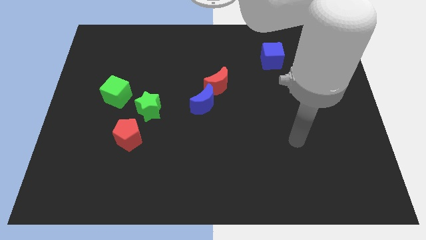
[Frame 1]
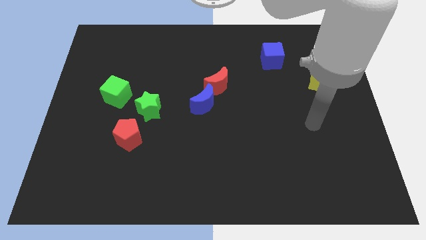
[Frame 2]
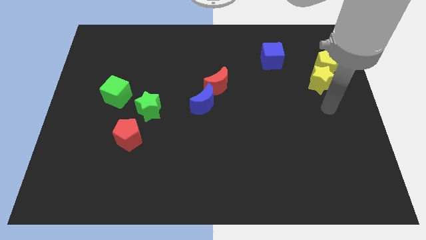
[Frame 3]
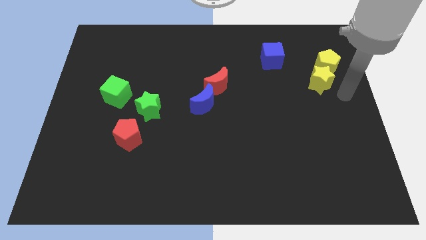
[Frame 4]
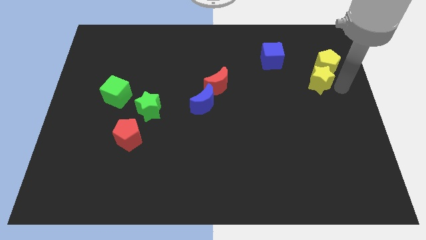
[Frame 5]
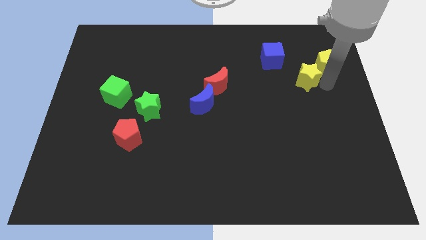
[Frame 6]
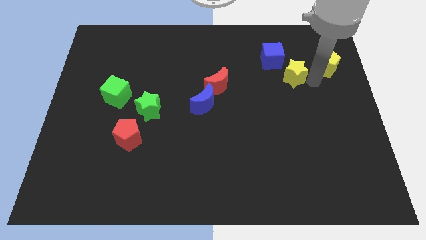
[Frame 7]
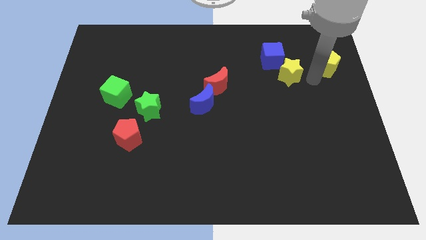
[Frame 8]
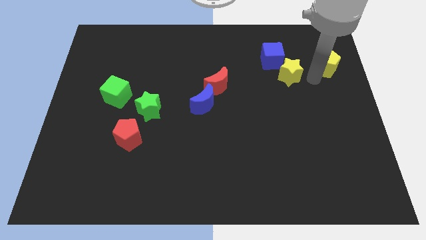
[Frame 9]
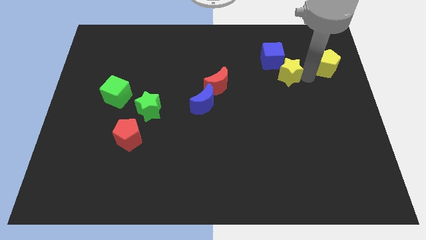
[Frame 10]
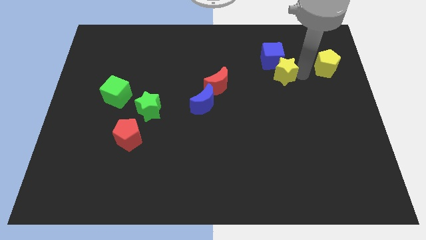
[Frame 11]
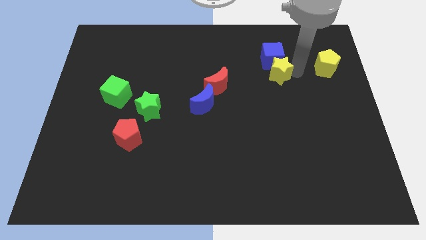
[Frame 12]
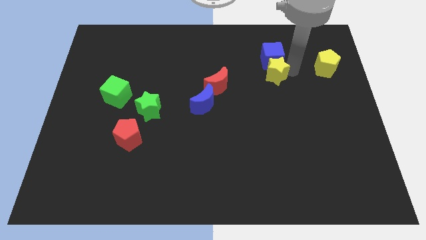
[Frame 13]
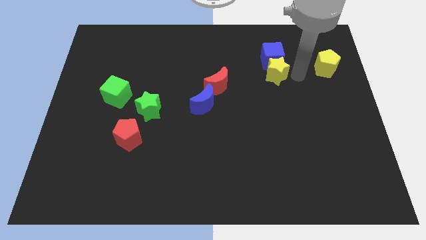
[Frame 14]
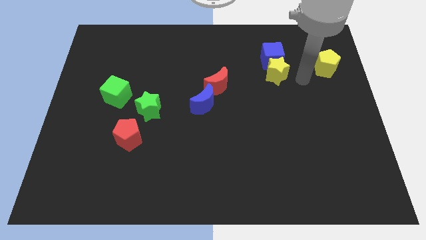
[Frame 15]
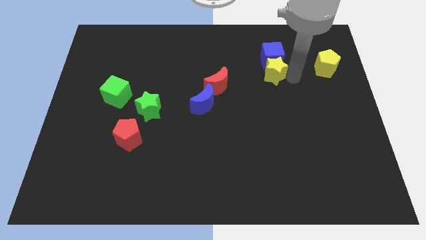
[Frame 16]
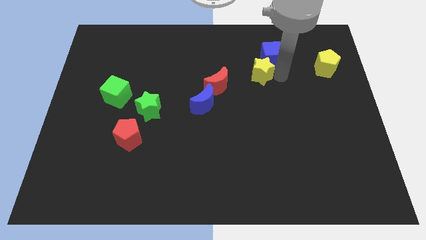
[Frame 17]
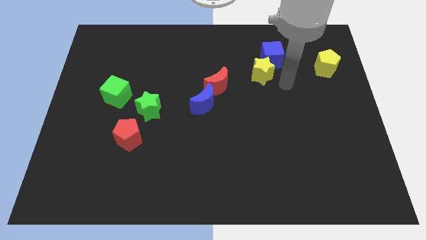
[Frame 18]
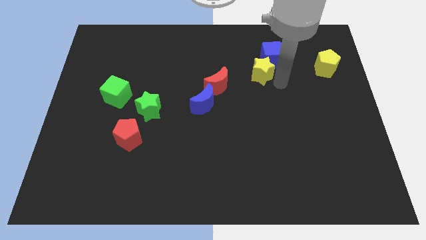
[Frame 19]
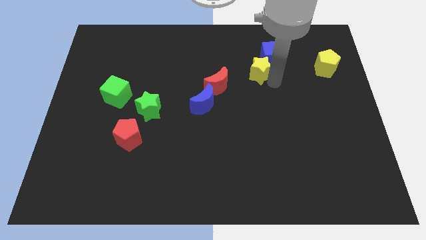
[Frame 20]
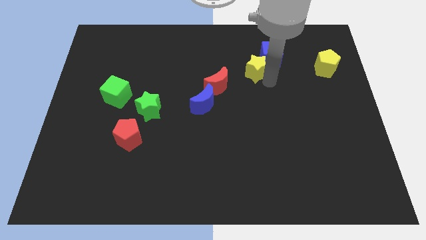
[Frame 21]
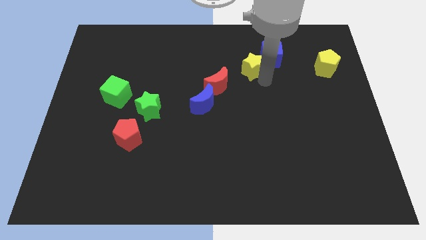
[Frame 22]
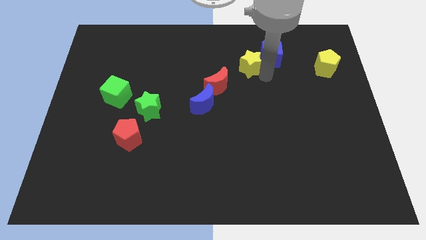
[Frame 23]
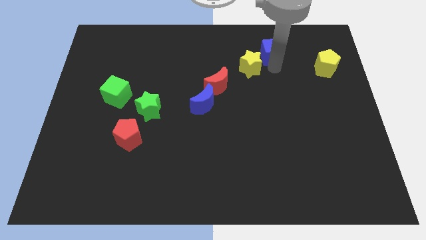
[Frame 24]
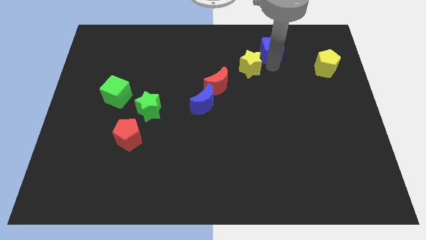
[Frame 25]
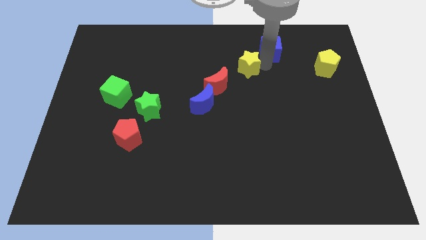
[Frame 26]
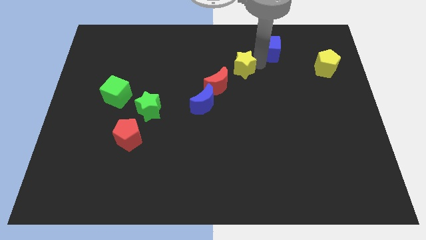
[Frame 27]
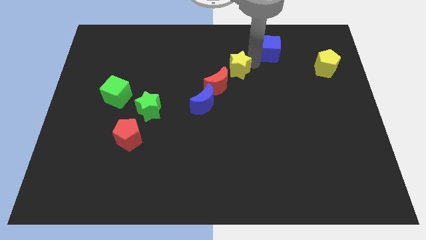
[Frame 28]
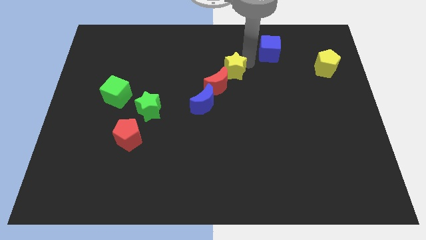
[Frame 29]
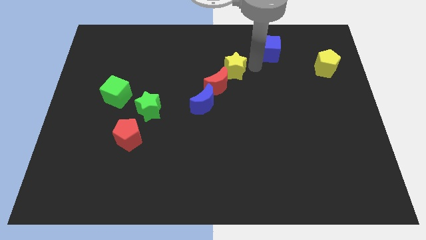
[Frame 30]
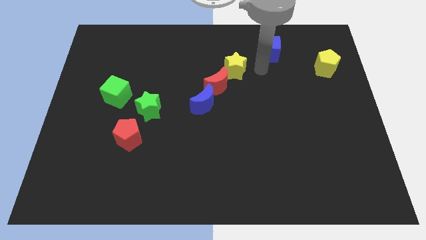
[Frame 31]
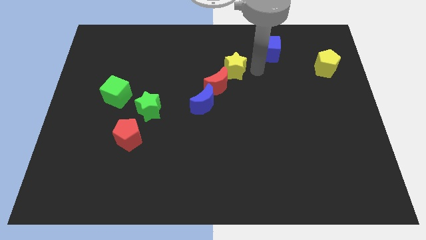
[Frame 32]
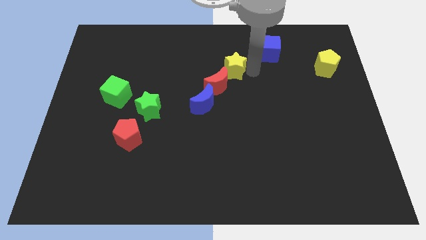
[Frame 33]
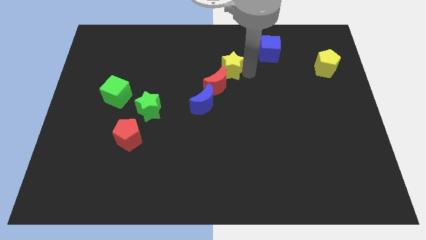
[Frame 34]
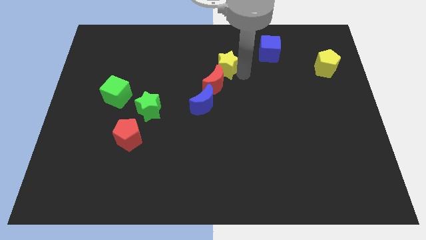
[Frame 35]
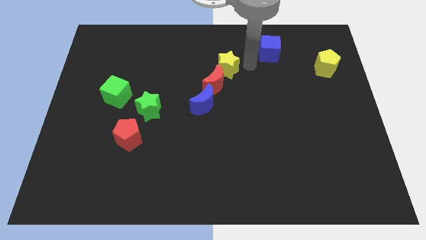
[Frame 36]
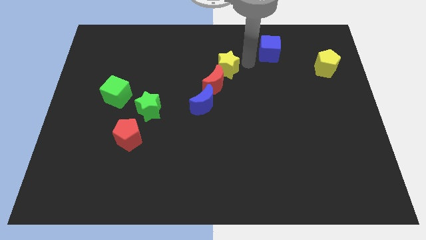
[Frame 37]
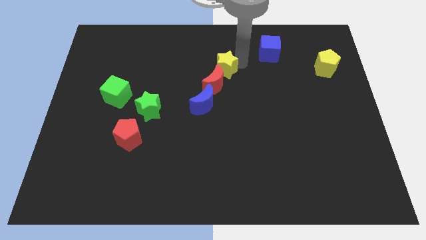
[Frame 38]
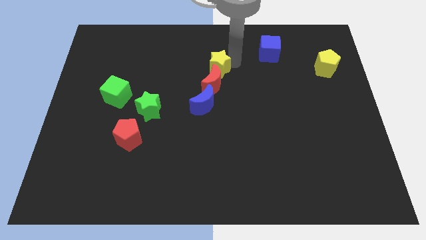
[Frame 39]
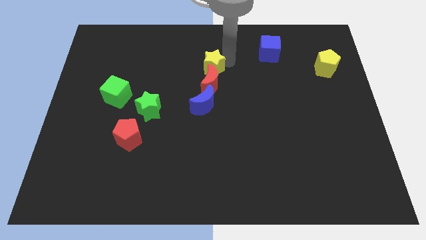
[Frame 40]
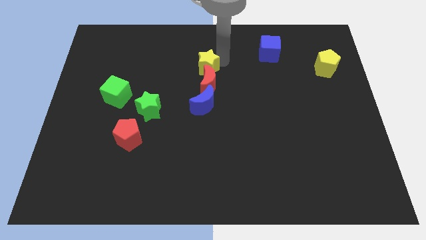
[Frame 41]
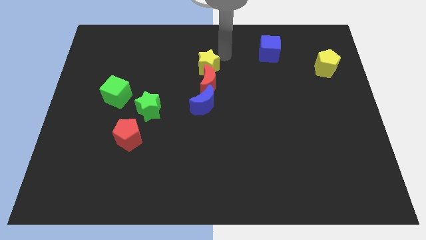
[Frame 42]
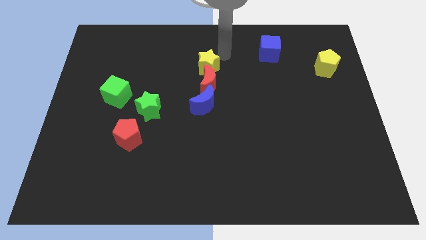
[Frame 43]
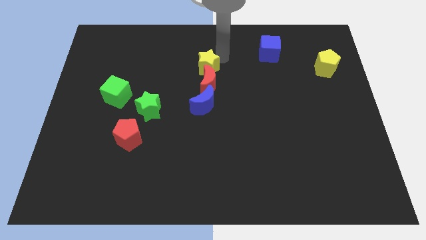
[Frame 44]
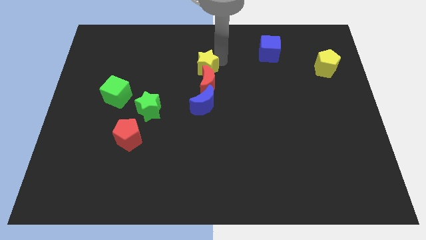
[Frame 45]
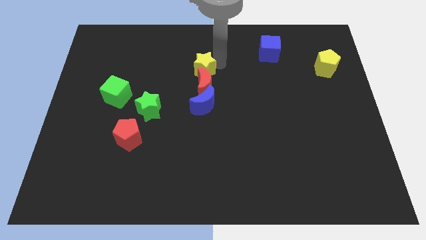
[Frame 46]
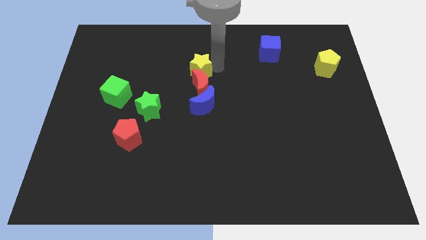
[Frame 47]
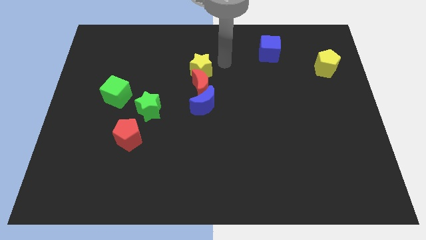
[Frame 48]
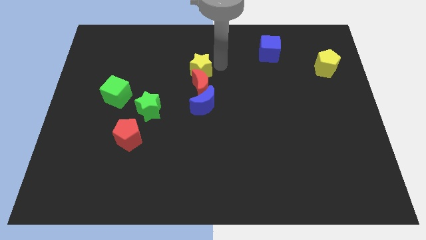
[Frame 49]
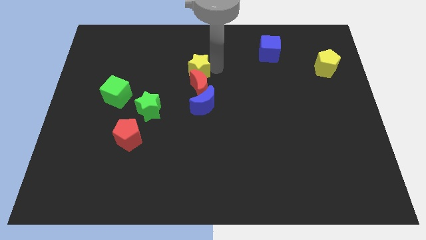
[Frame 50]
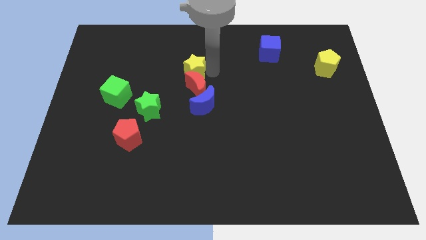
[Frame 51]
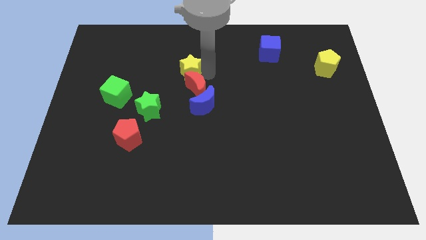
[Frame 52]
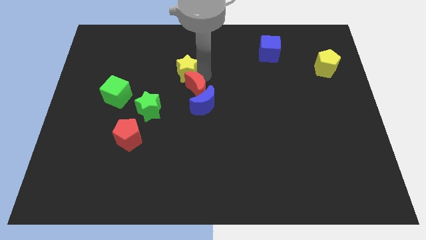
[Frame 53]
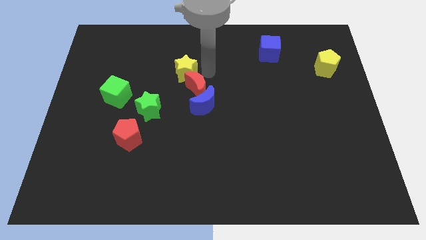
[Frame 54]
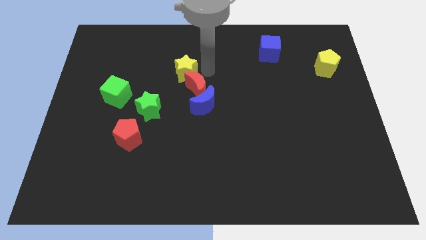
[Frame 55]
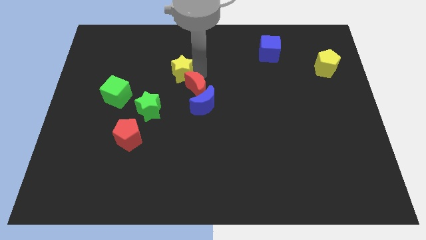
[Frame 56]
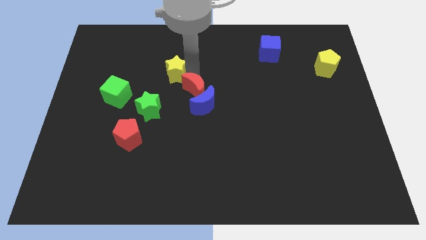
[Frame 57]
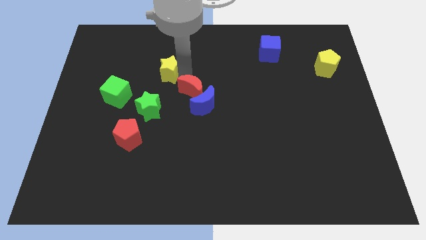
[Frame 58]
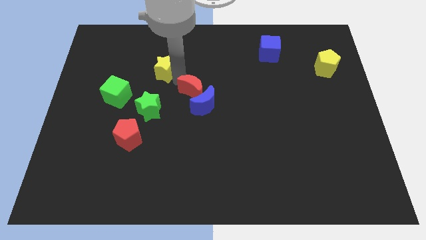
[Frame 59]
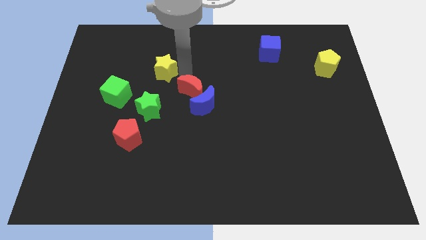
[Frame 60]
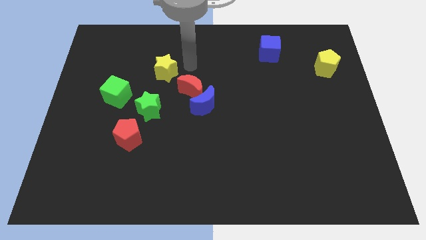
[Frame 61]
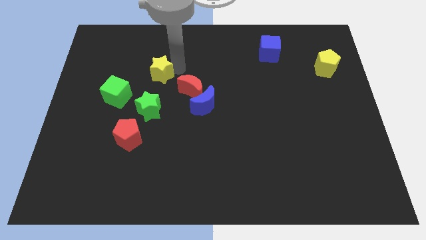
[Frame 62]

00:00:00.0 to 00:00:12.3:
move the yellow star diagonally up and to the right of the green cube

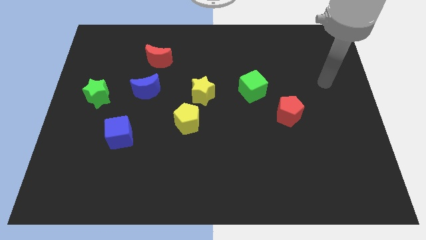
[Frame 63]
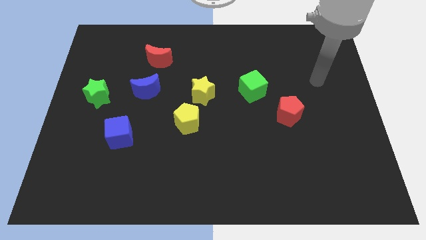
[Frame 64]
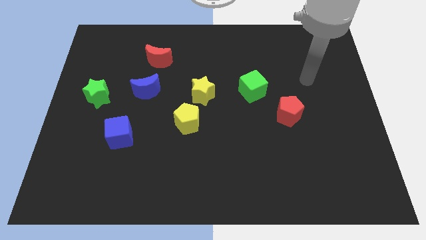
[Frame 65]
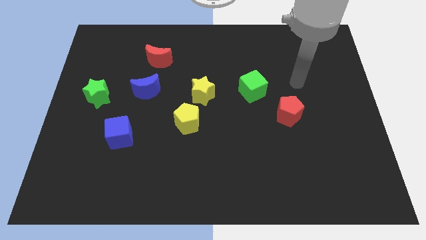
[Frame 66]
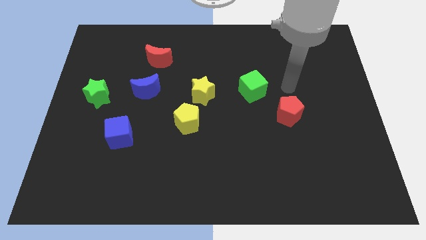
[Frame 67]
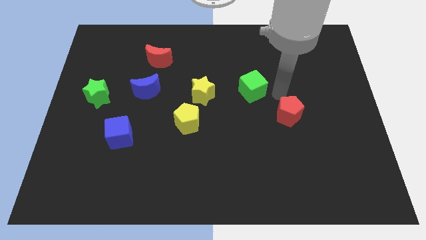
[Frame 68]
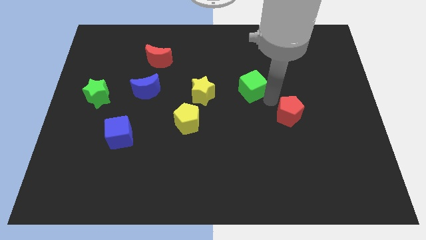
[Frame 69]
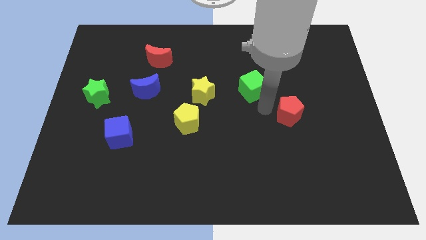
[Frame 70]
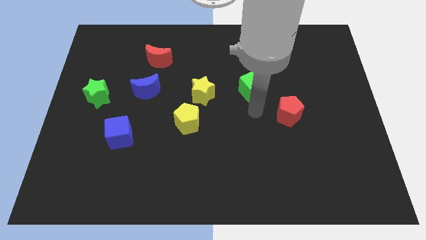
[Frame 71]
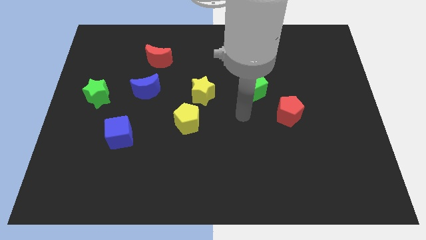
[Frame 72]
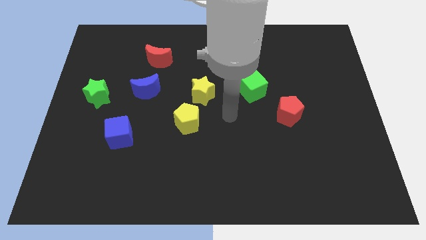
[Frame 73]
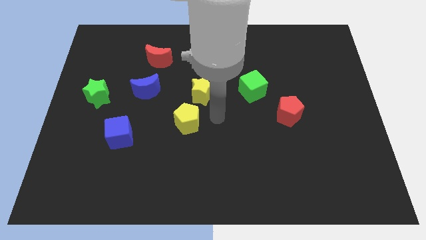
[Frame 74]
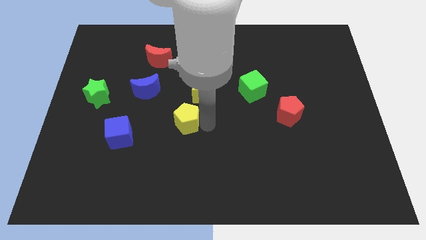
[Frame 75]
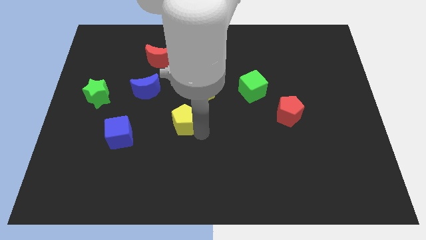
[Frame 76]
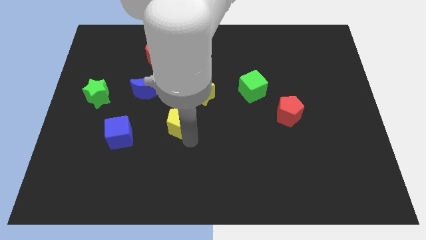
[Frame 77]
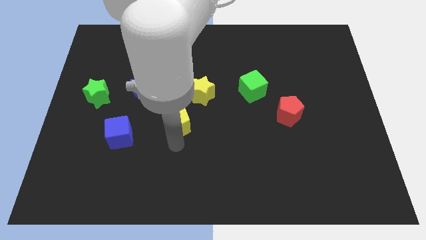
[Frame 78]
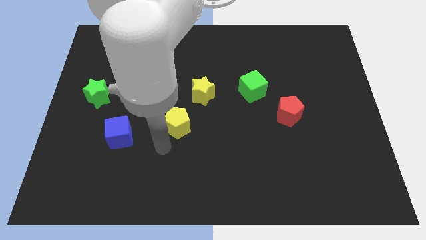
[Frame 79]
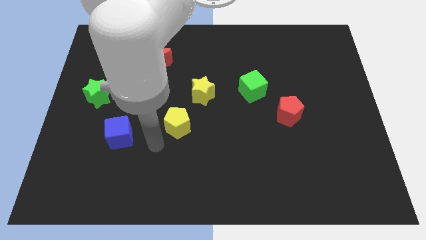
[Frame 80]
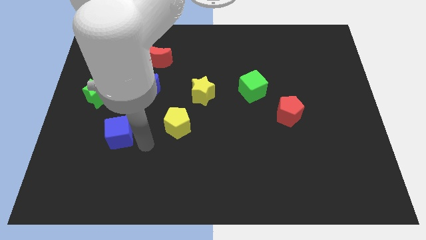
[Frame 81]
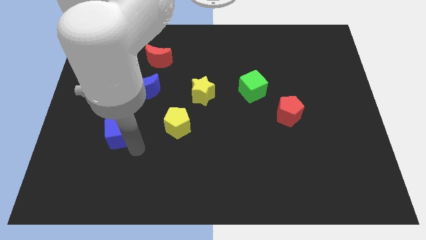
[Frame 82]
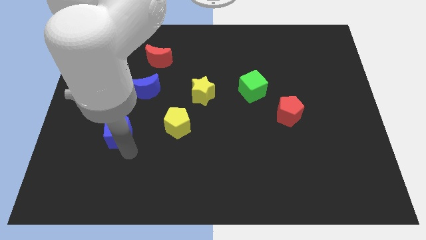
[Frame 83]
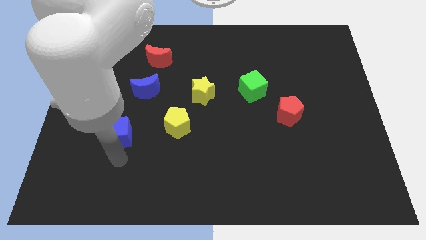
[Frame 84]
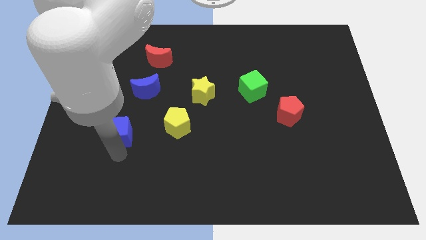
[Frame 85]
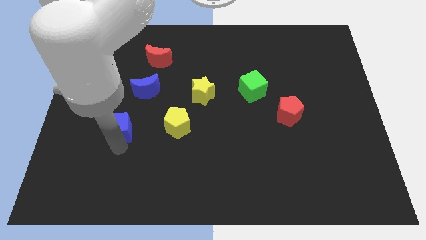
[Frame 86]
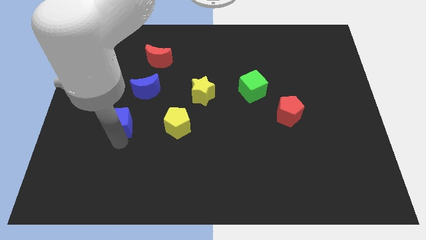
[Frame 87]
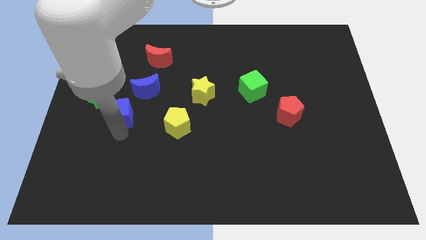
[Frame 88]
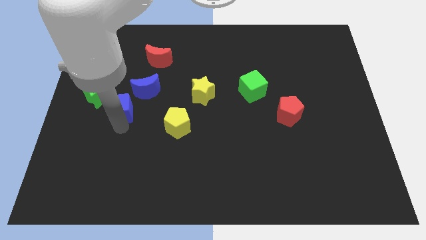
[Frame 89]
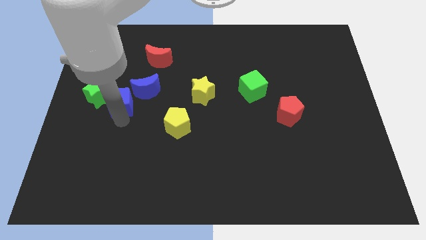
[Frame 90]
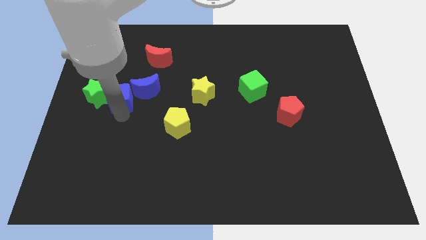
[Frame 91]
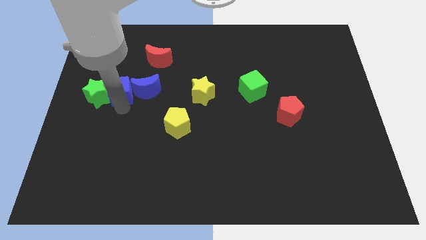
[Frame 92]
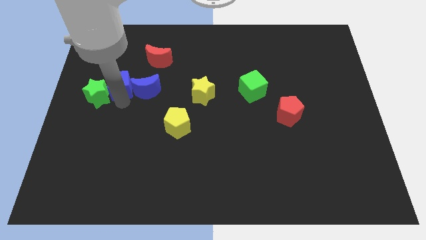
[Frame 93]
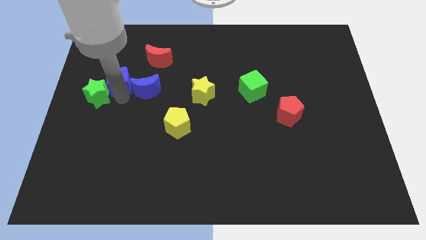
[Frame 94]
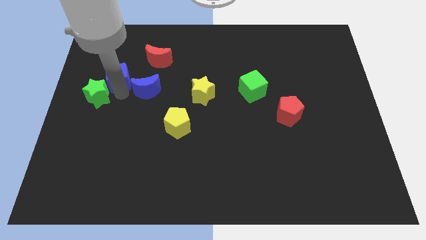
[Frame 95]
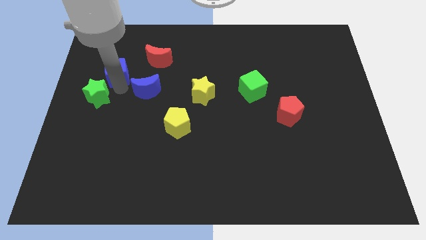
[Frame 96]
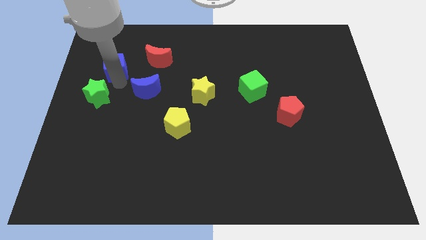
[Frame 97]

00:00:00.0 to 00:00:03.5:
move the blue cube to the left of the red moon
